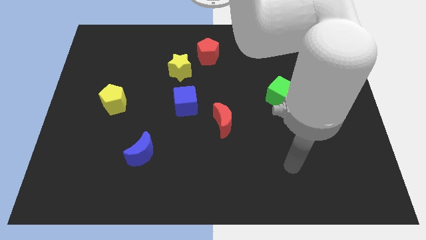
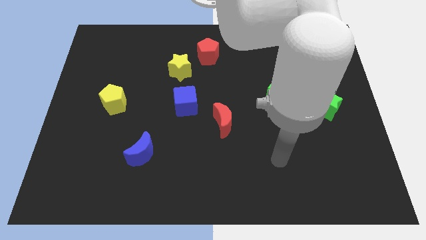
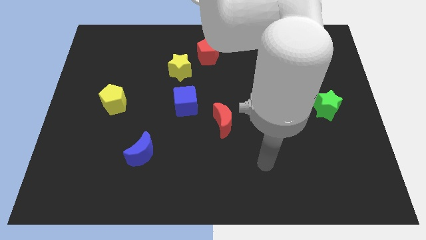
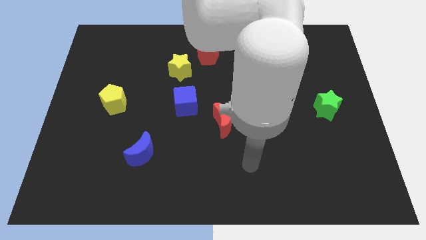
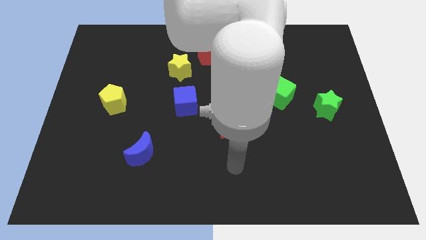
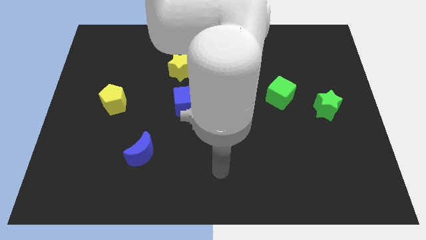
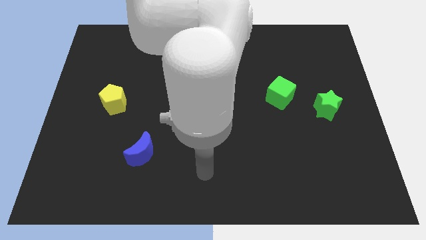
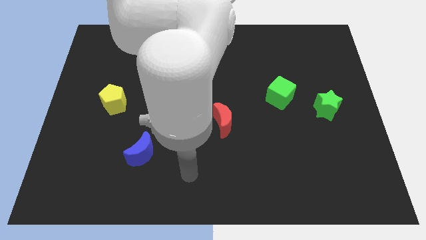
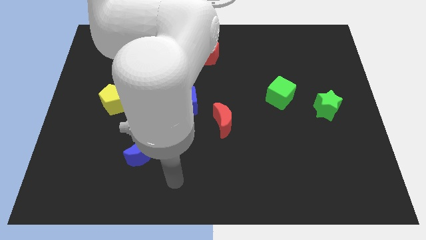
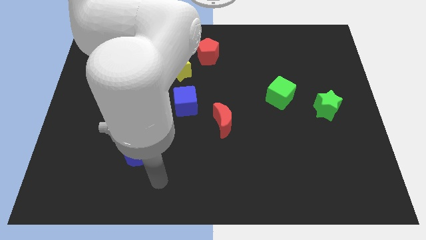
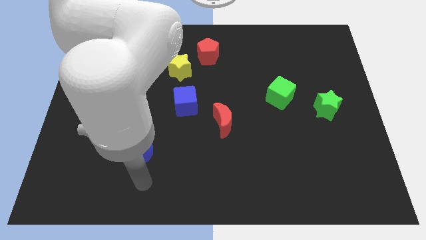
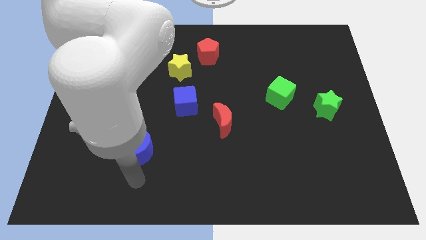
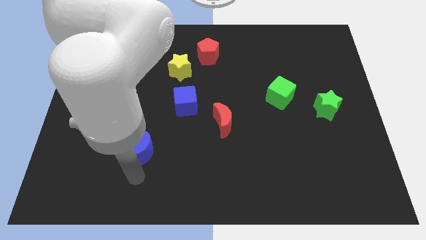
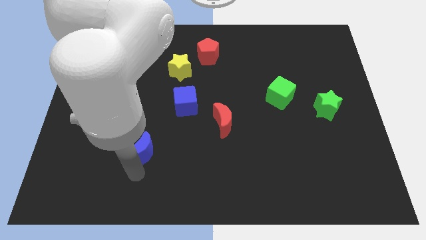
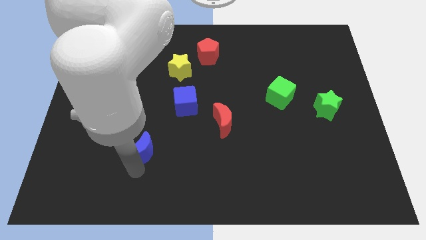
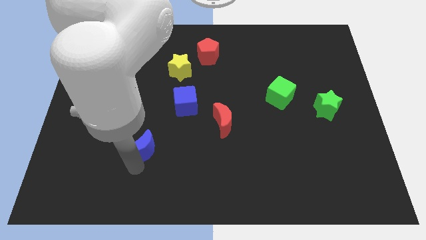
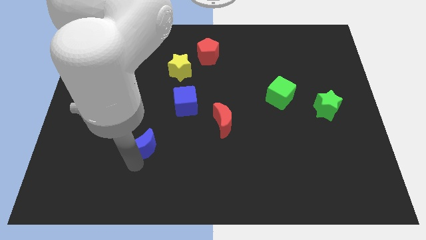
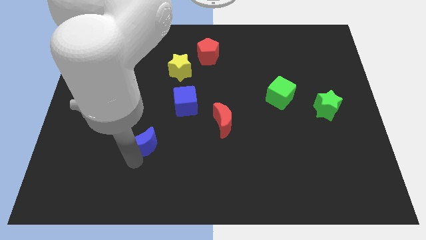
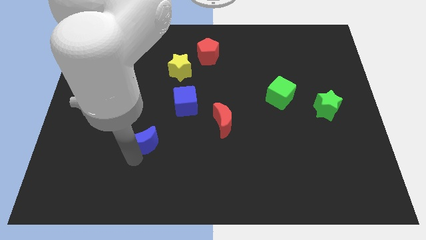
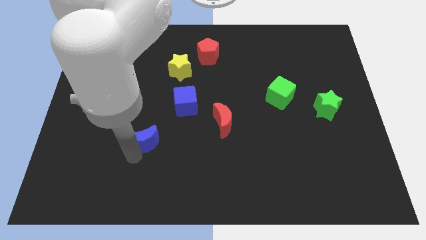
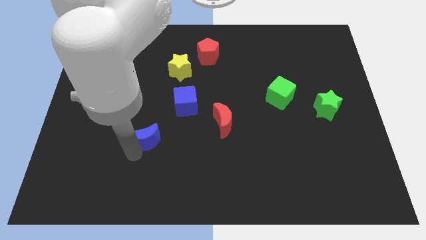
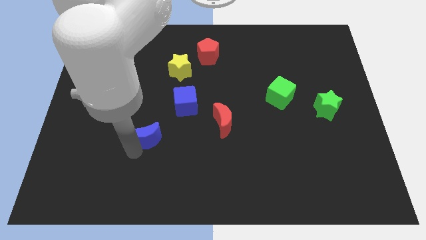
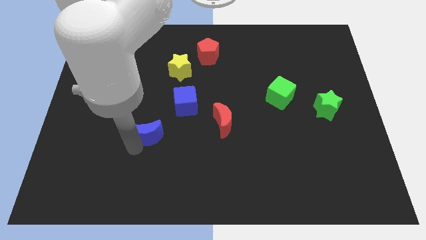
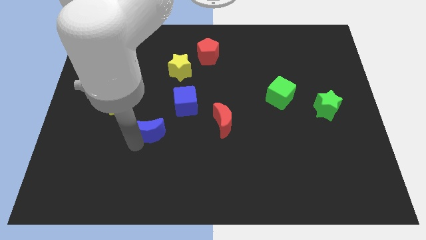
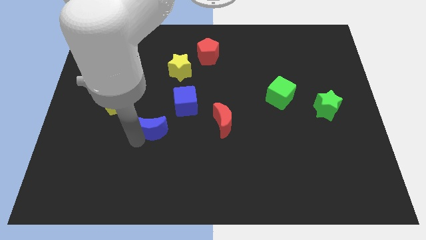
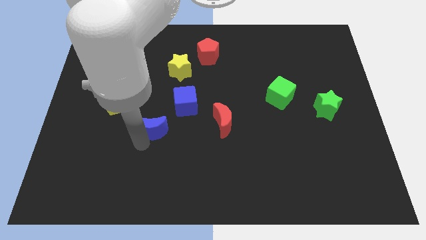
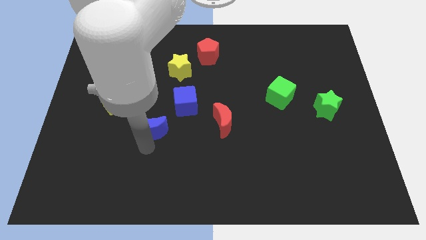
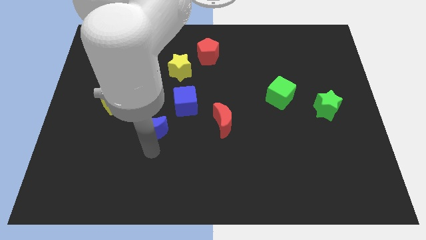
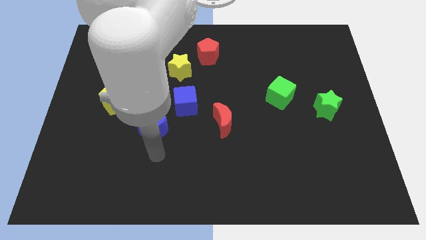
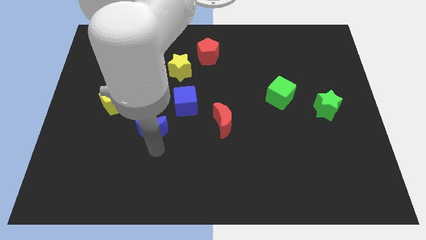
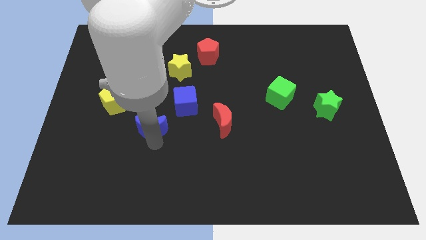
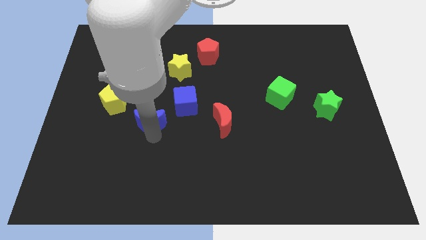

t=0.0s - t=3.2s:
slightly slide the blue moon up

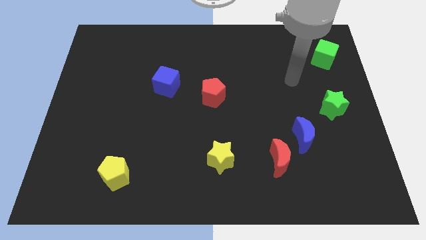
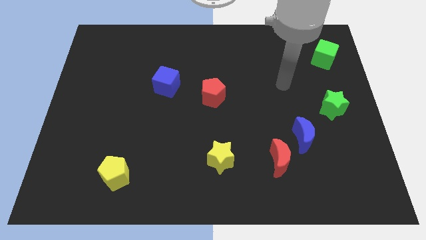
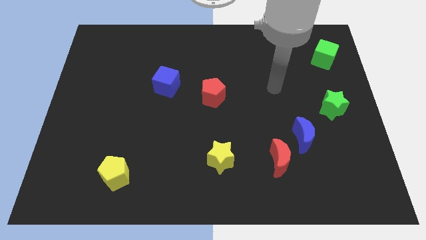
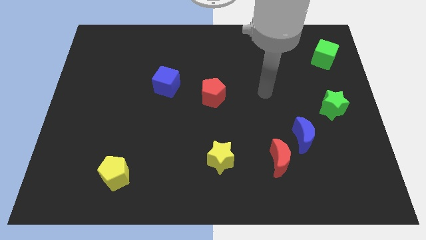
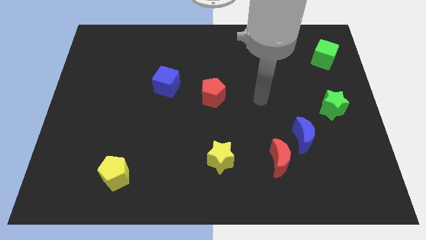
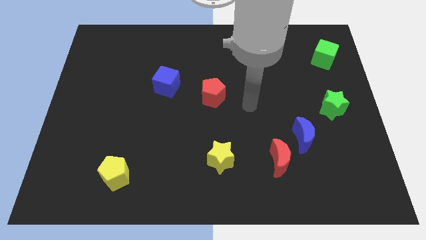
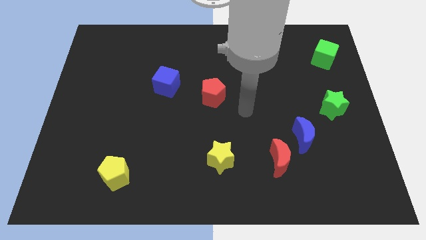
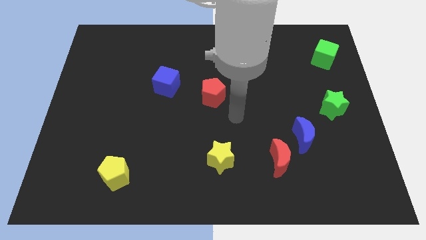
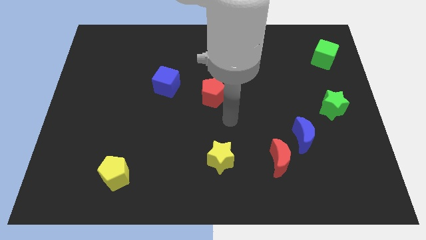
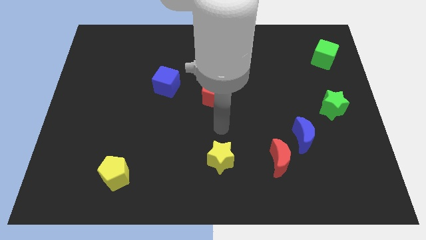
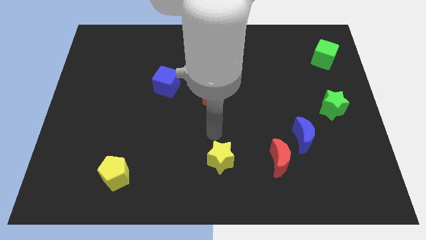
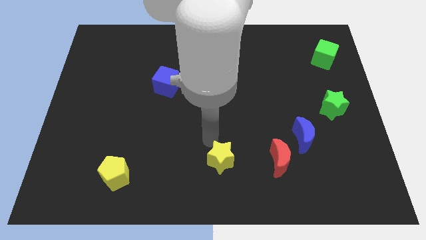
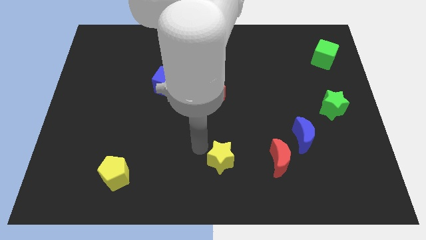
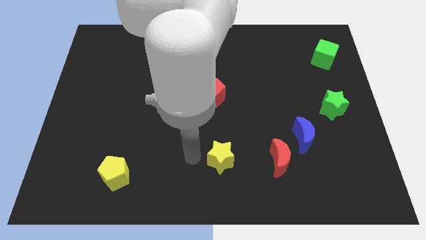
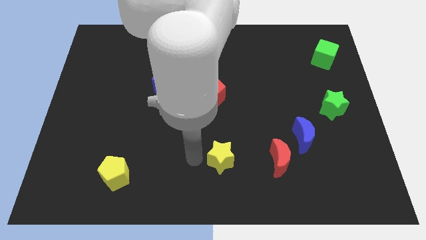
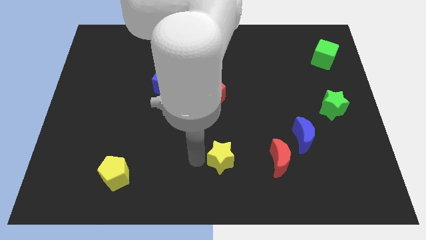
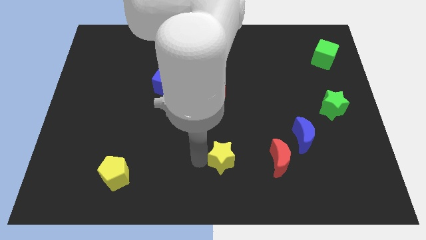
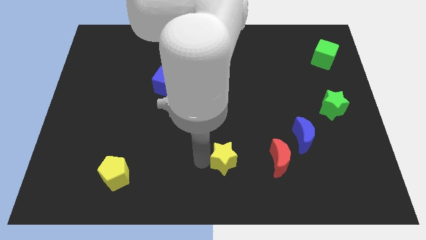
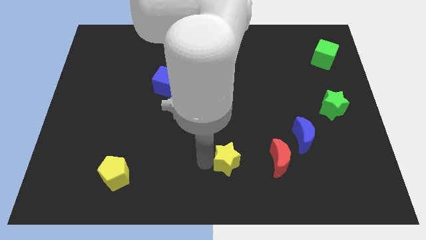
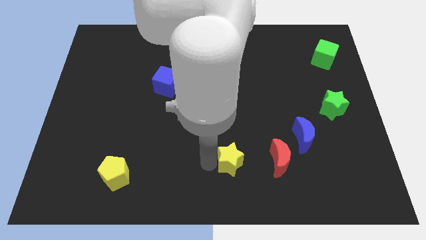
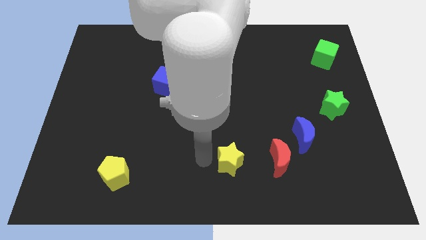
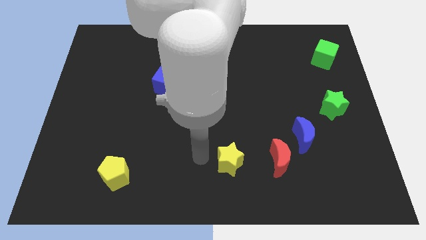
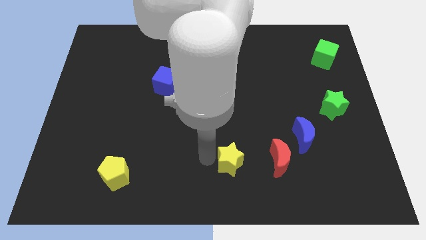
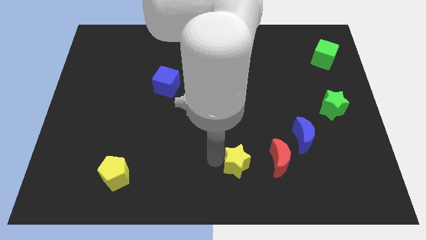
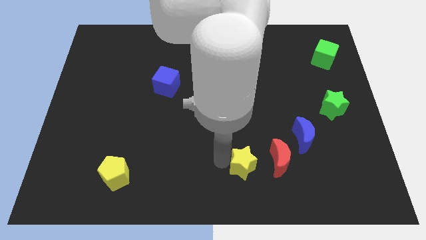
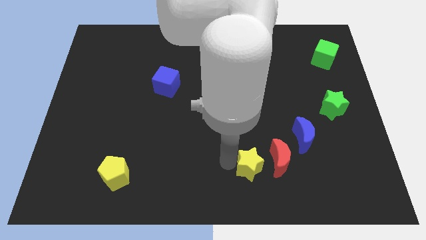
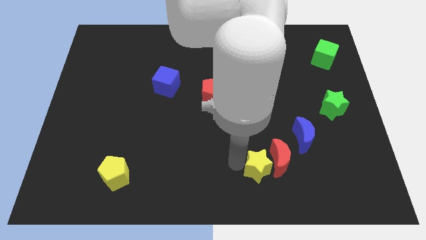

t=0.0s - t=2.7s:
slightly slide the yellow star right

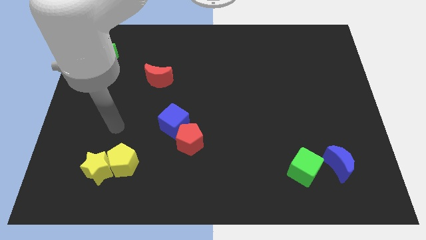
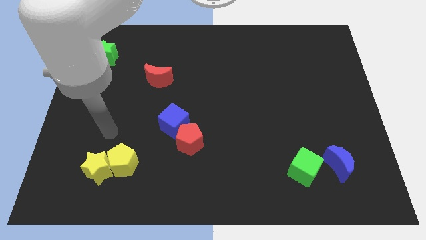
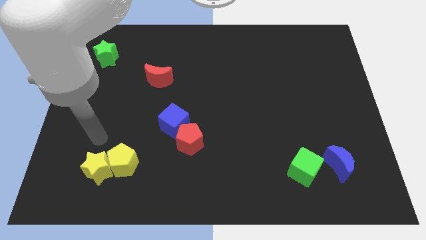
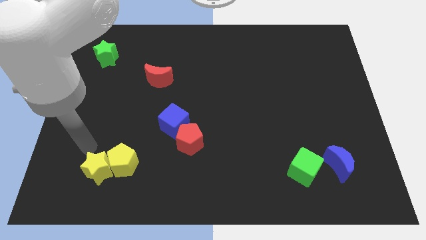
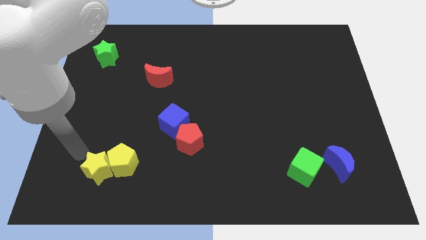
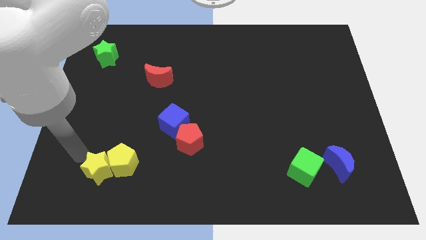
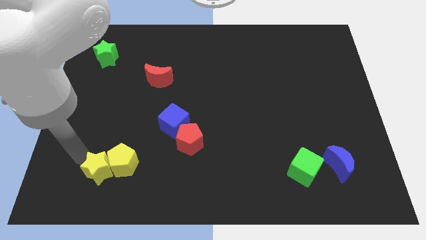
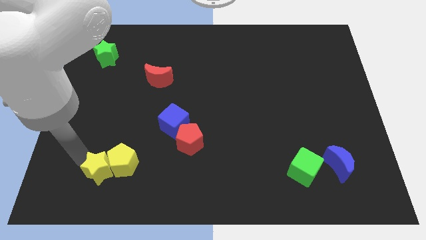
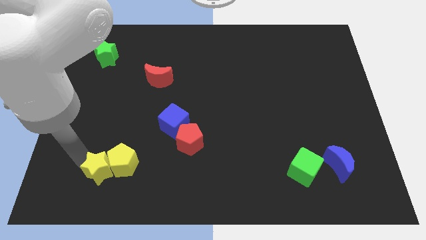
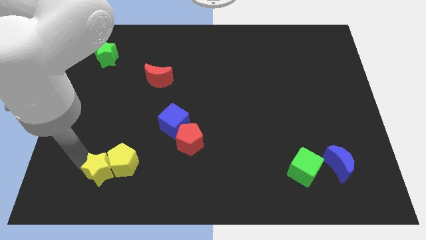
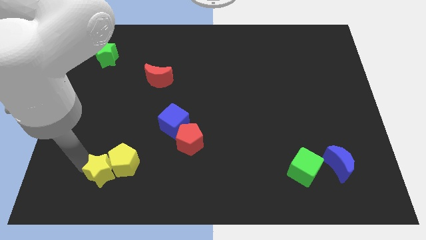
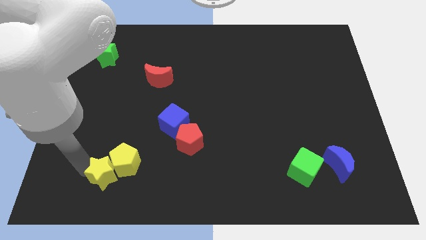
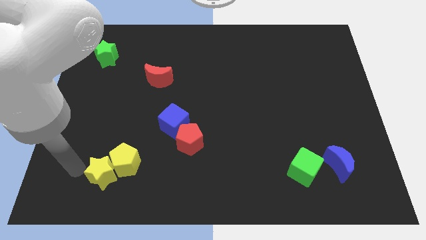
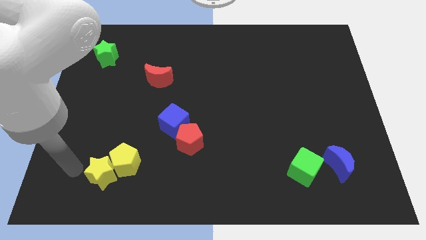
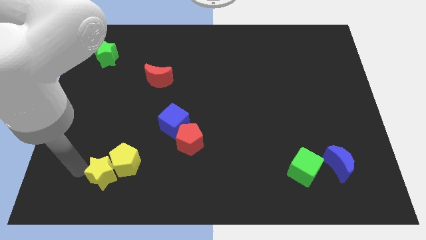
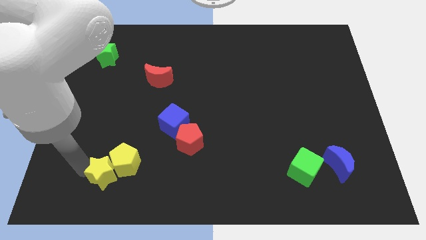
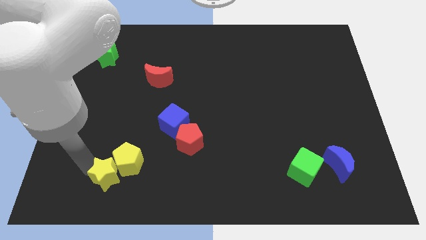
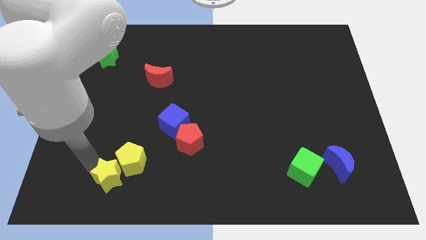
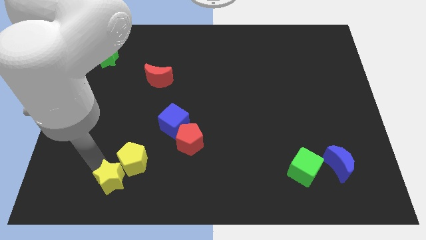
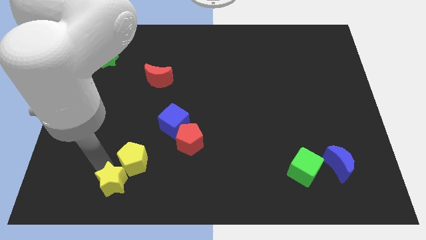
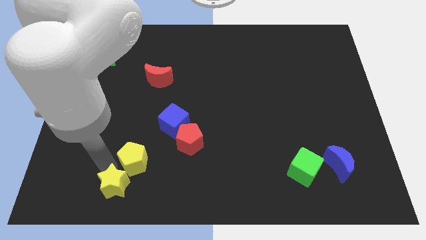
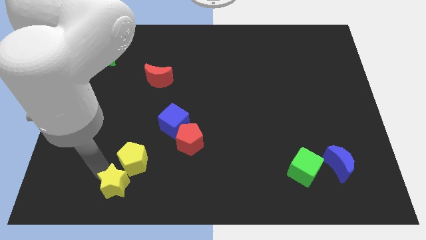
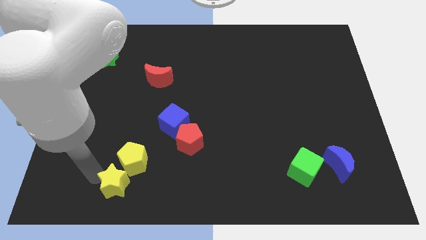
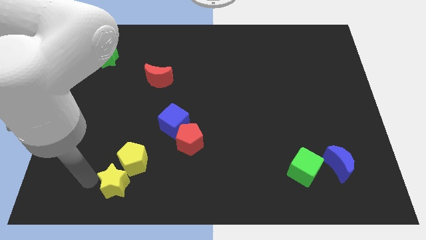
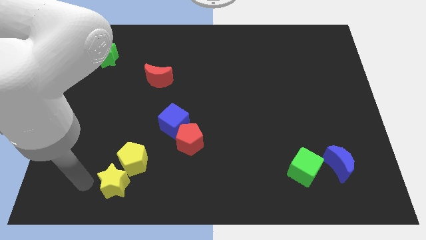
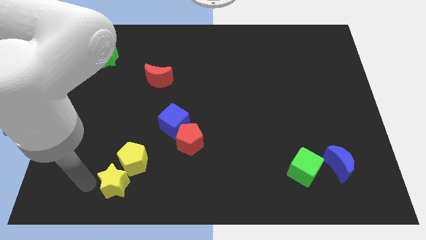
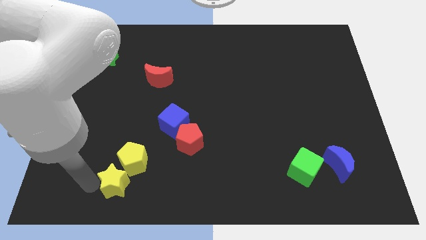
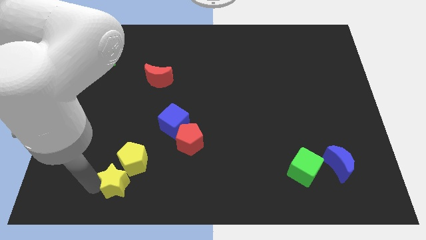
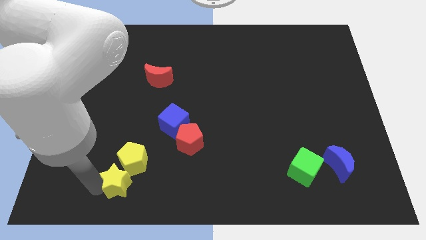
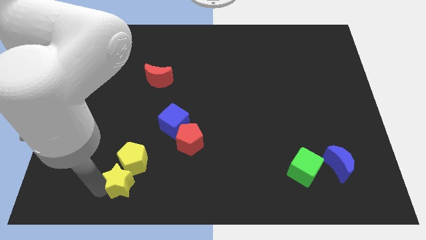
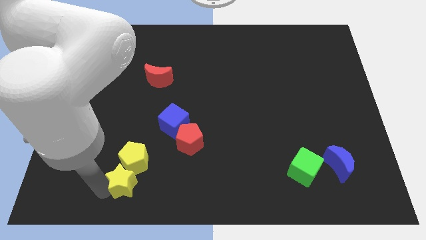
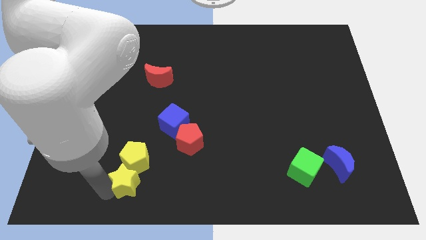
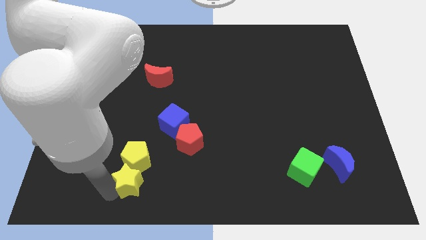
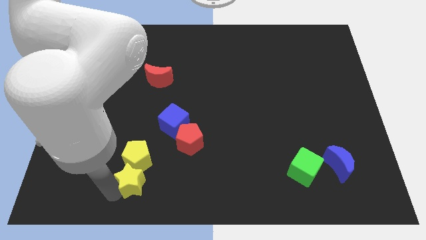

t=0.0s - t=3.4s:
push the yellow star a little bit to the right
